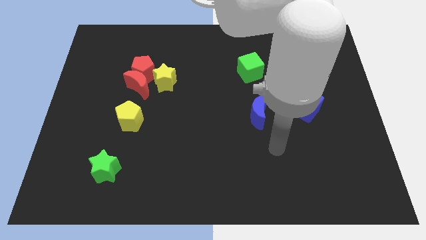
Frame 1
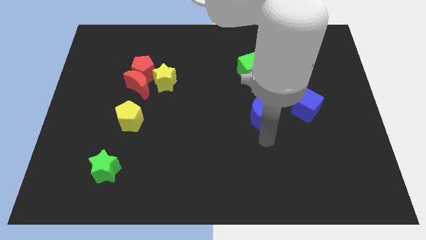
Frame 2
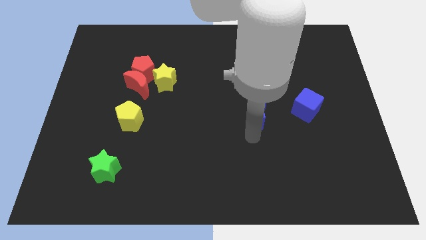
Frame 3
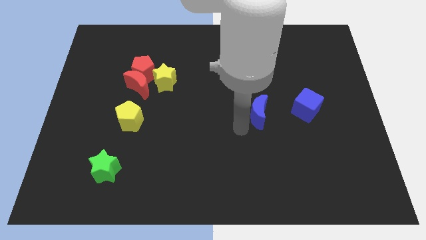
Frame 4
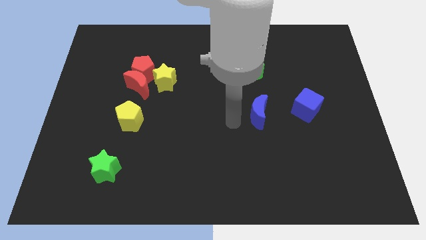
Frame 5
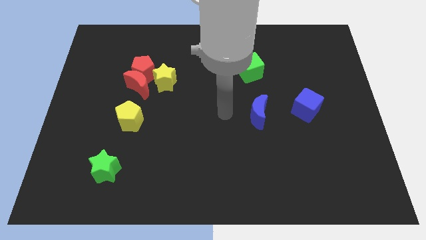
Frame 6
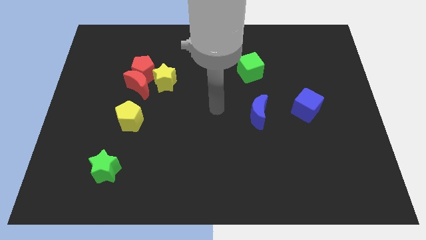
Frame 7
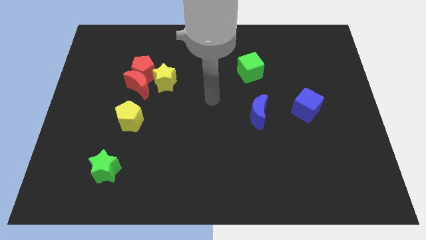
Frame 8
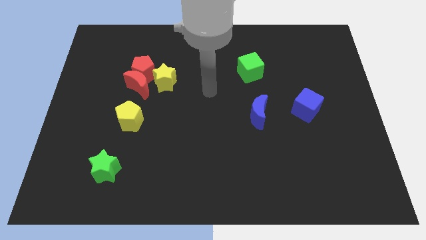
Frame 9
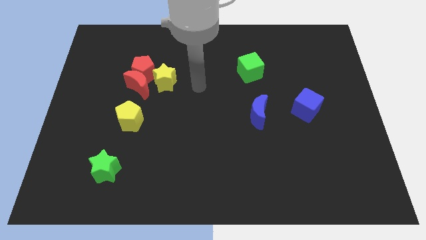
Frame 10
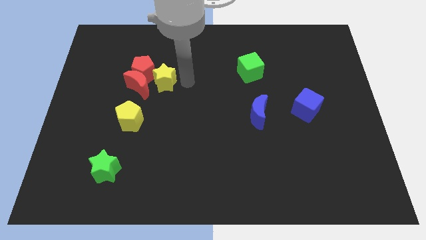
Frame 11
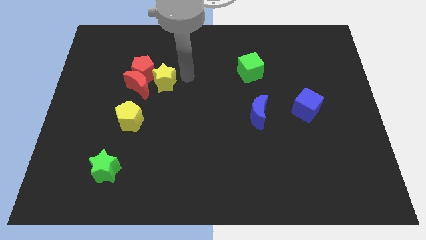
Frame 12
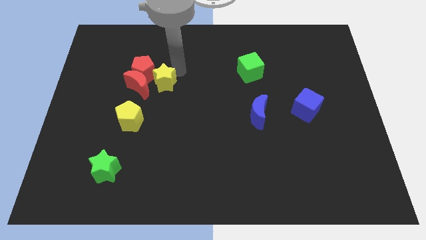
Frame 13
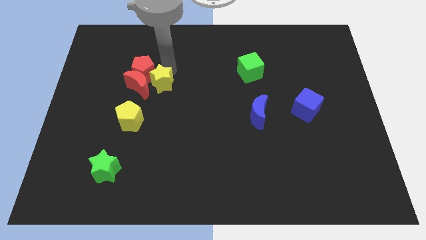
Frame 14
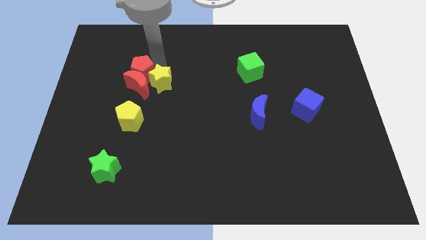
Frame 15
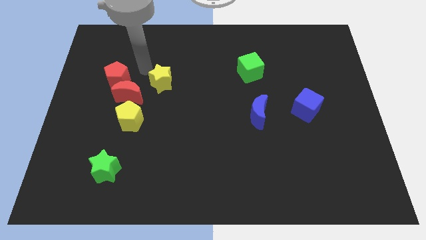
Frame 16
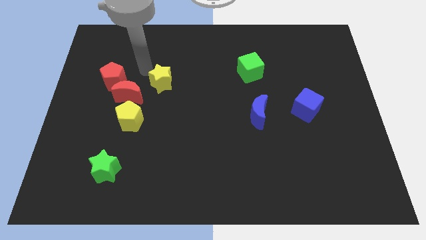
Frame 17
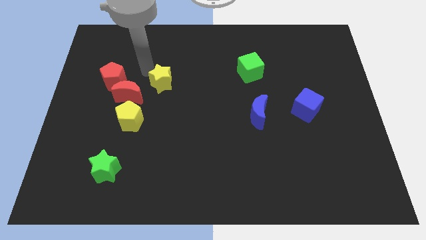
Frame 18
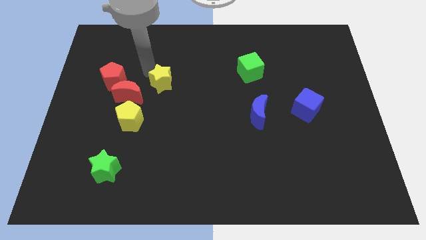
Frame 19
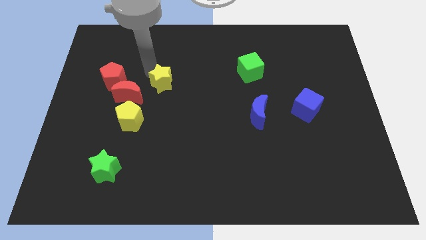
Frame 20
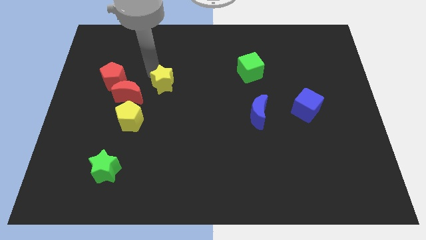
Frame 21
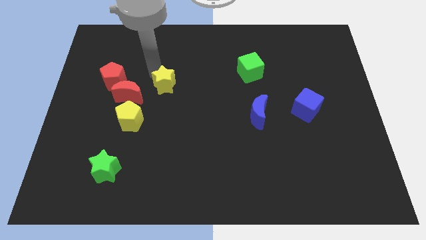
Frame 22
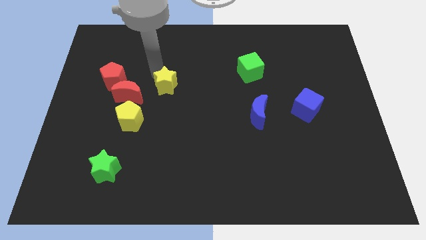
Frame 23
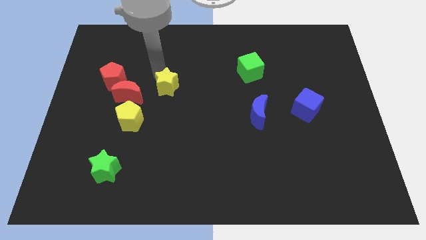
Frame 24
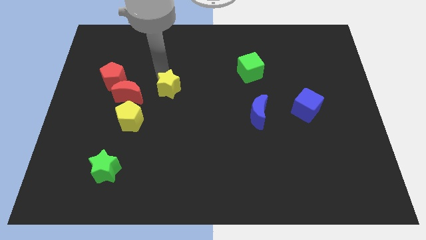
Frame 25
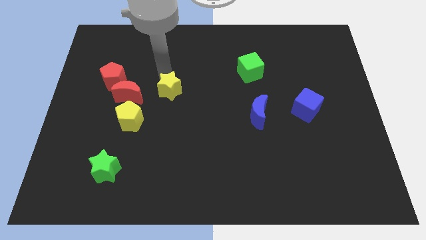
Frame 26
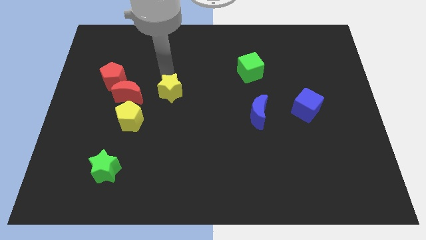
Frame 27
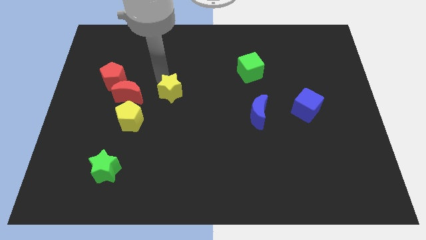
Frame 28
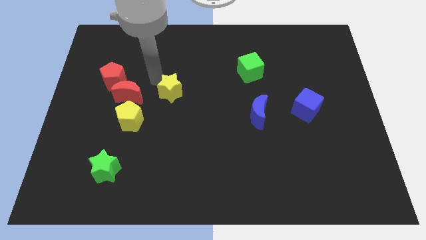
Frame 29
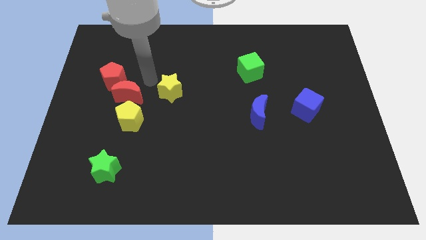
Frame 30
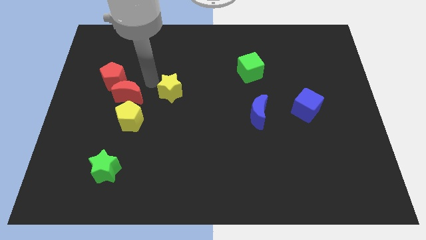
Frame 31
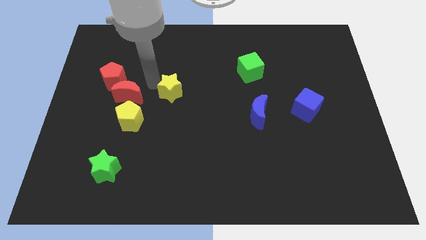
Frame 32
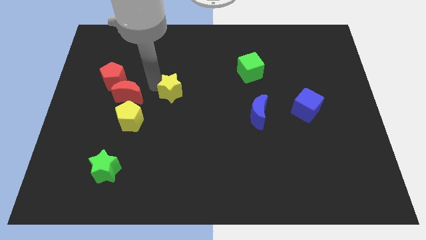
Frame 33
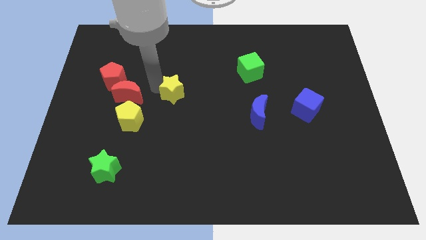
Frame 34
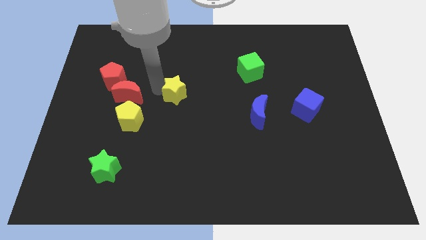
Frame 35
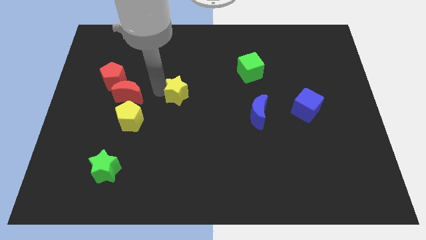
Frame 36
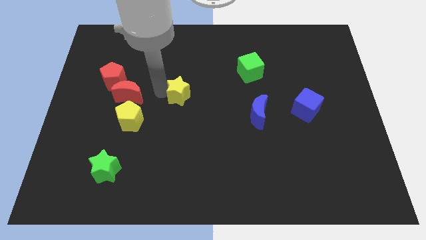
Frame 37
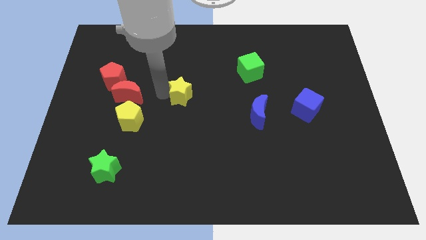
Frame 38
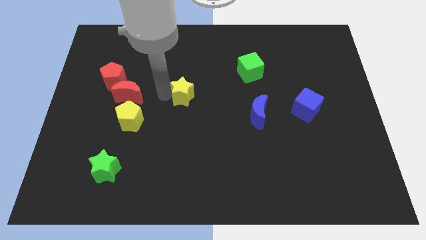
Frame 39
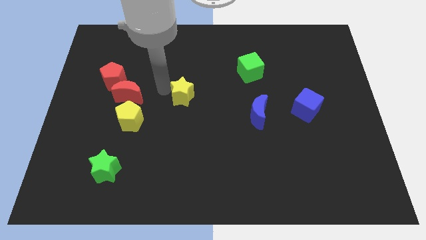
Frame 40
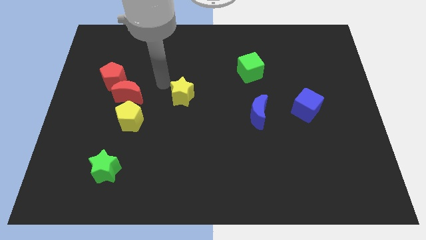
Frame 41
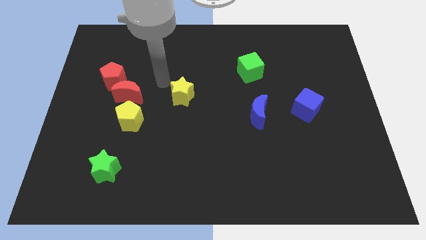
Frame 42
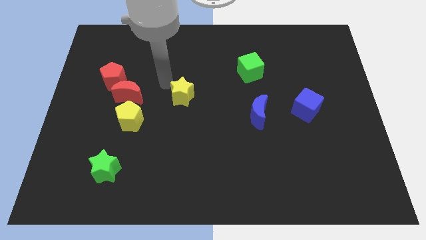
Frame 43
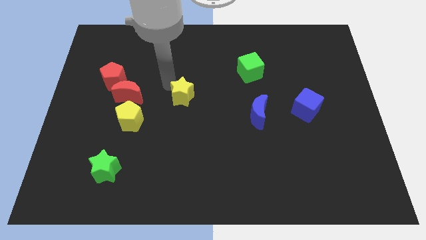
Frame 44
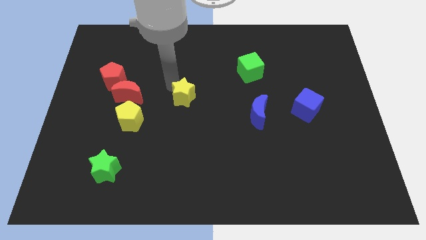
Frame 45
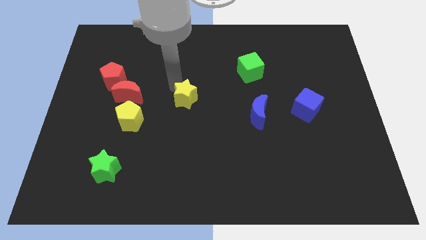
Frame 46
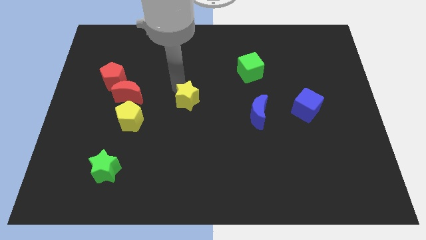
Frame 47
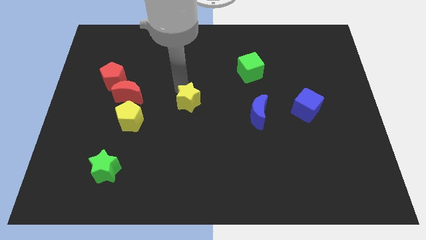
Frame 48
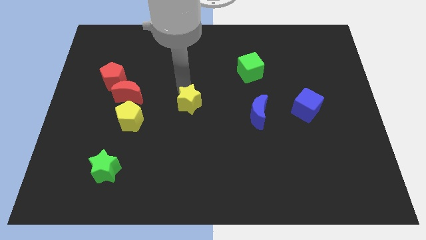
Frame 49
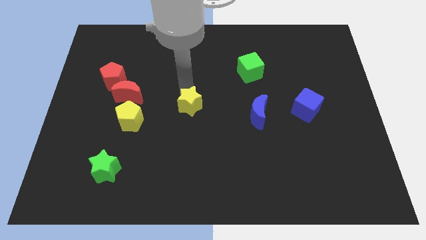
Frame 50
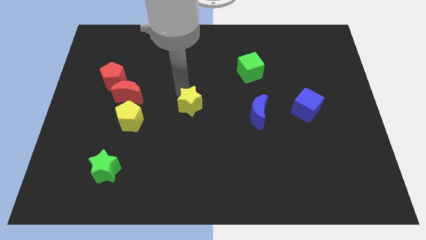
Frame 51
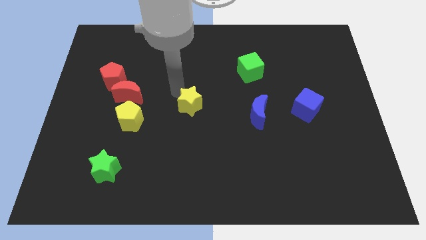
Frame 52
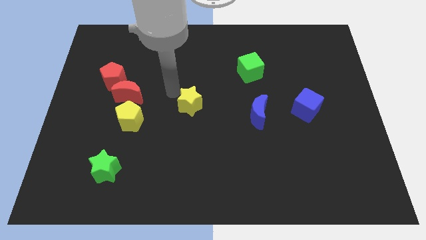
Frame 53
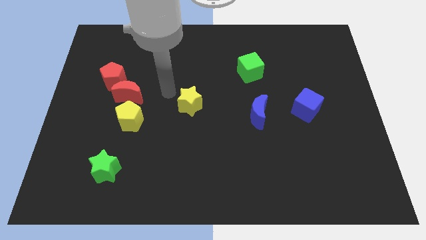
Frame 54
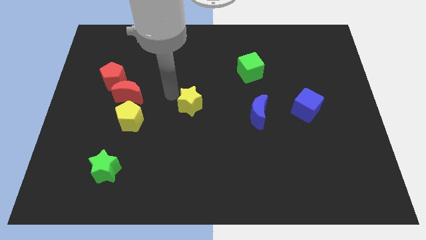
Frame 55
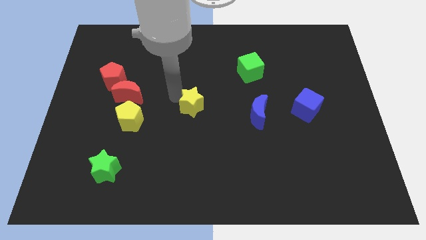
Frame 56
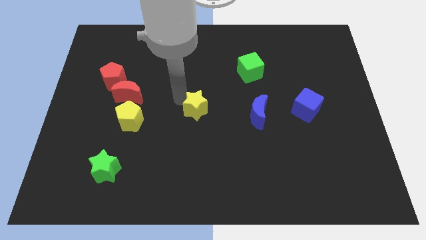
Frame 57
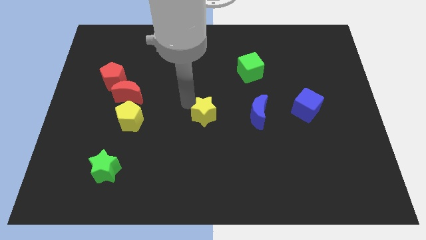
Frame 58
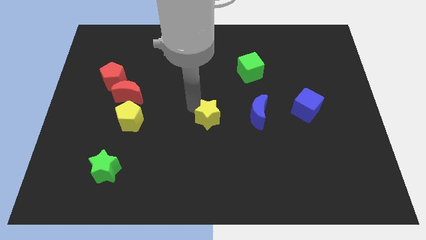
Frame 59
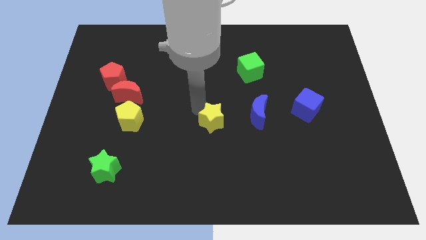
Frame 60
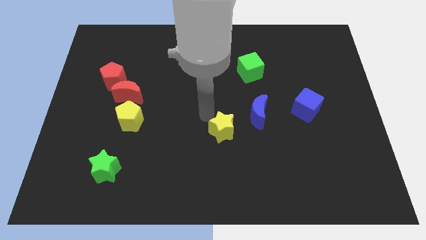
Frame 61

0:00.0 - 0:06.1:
slide the yellow star downwards and then to the right

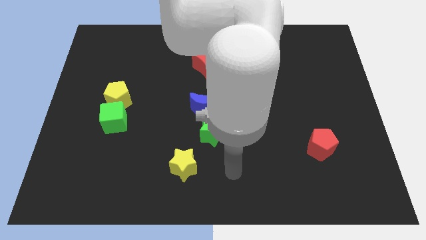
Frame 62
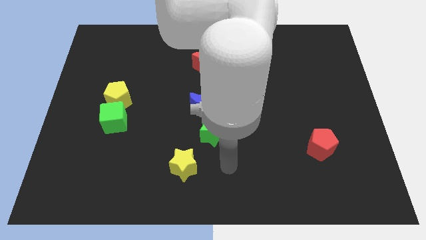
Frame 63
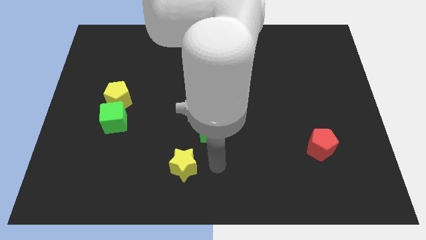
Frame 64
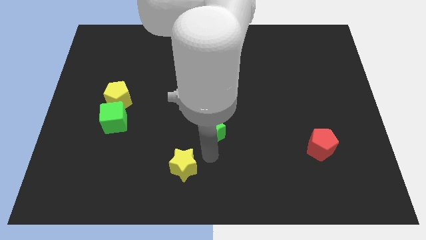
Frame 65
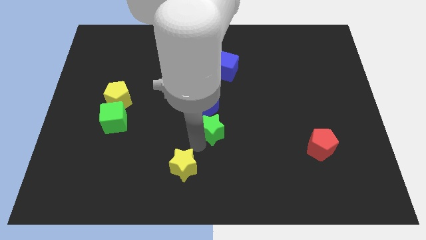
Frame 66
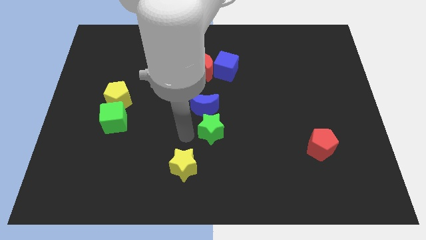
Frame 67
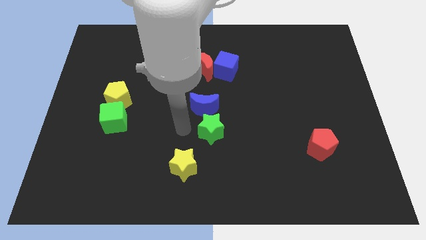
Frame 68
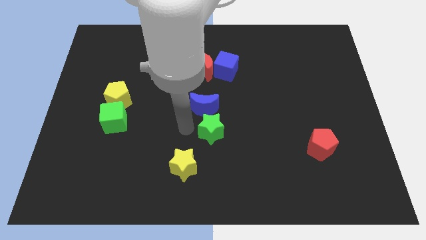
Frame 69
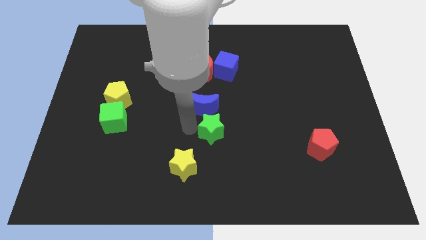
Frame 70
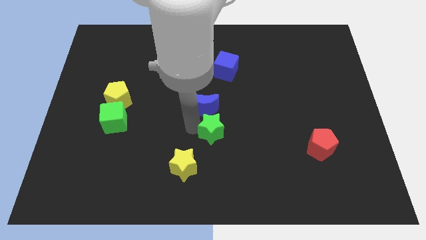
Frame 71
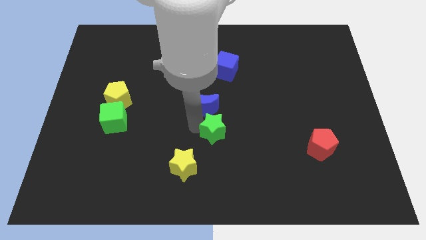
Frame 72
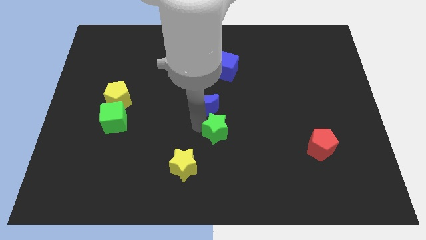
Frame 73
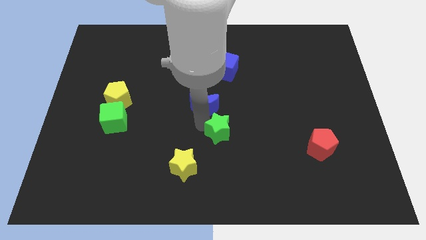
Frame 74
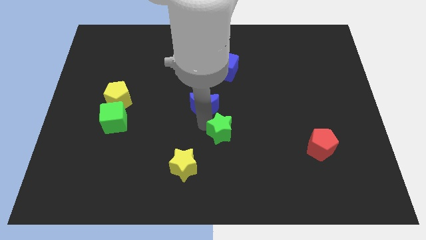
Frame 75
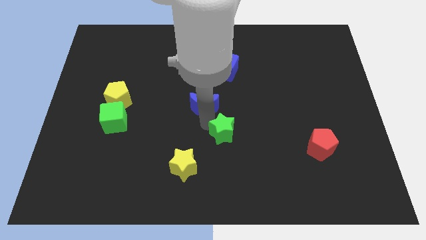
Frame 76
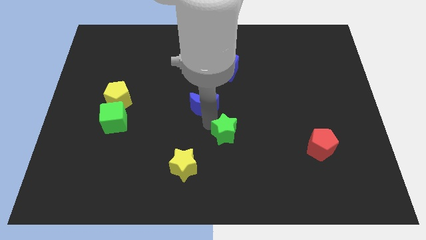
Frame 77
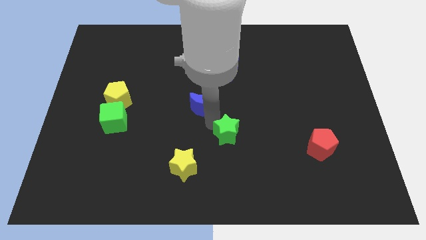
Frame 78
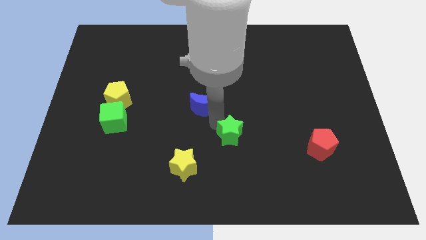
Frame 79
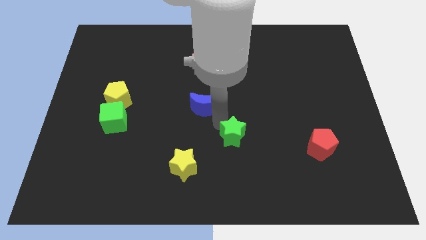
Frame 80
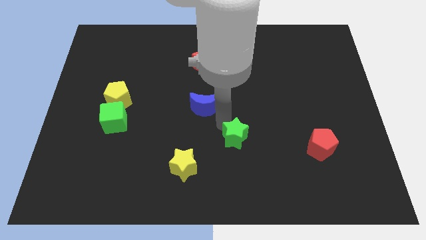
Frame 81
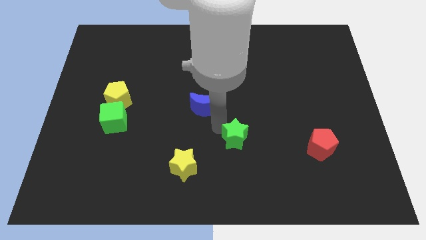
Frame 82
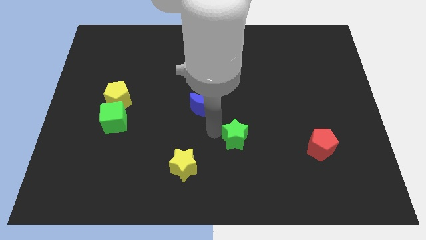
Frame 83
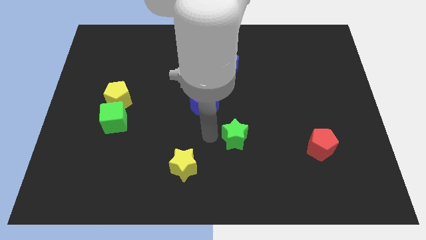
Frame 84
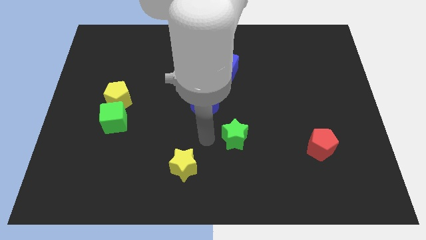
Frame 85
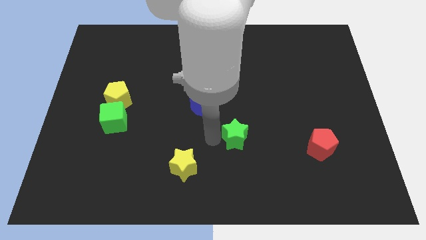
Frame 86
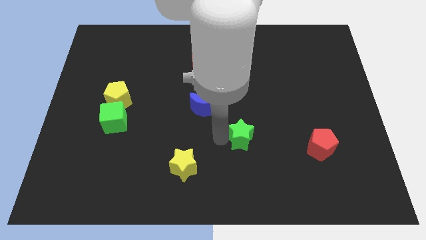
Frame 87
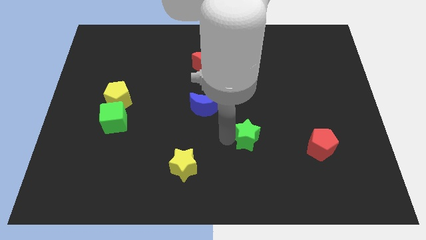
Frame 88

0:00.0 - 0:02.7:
push the green star to the right somewhat
